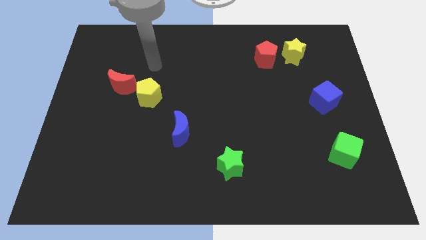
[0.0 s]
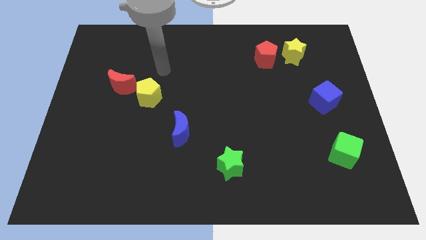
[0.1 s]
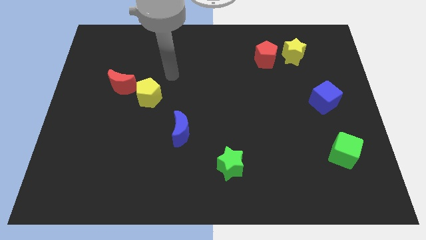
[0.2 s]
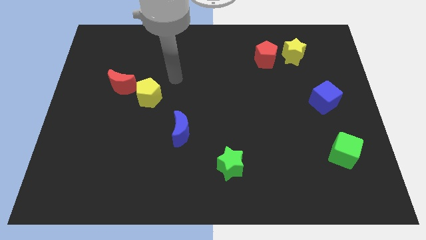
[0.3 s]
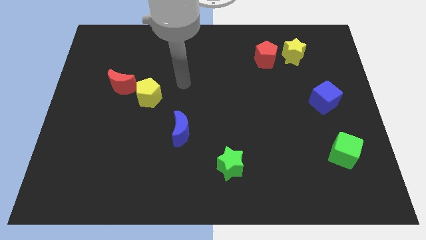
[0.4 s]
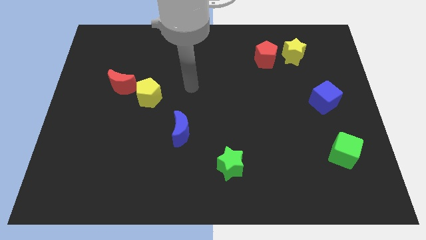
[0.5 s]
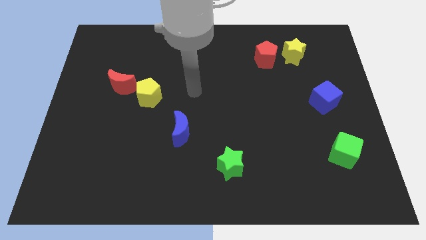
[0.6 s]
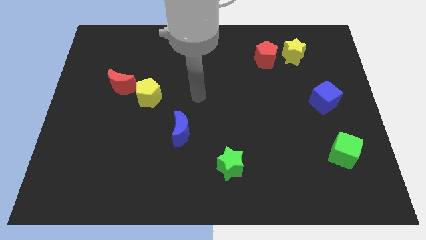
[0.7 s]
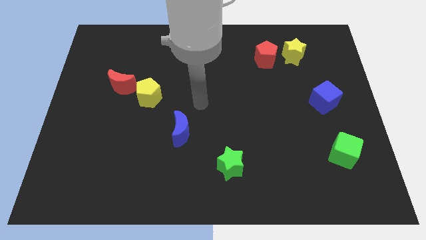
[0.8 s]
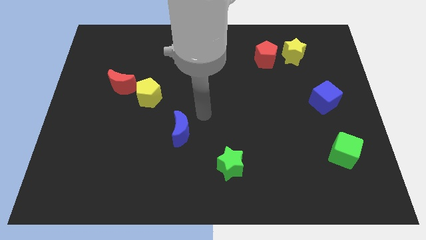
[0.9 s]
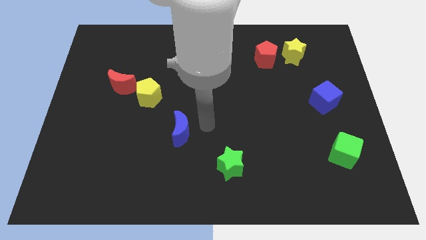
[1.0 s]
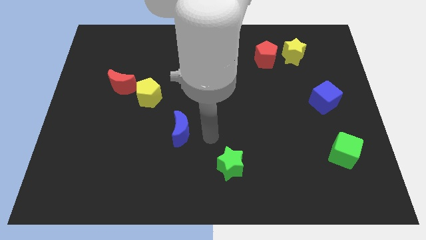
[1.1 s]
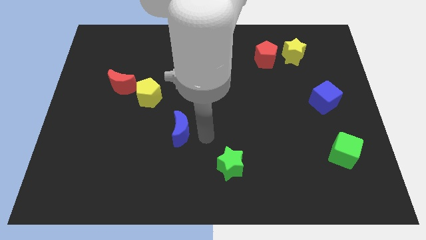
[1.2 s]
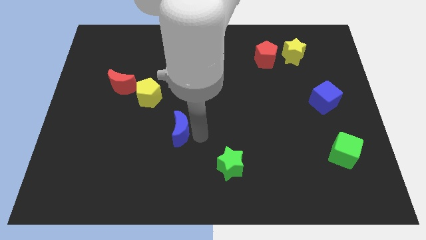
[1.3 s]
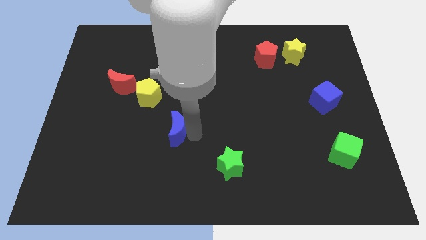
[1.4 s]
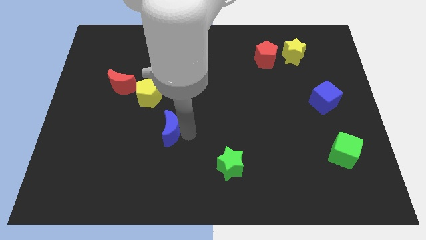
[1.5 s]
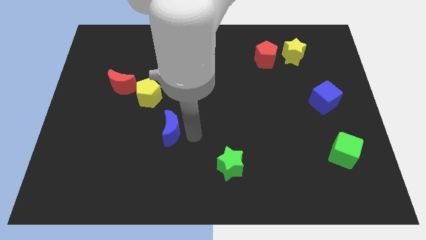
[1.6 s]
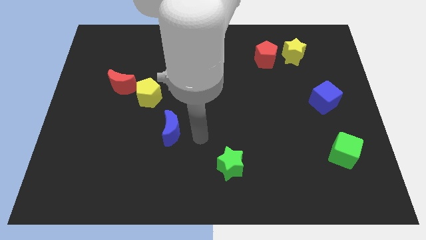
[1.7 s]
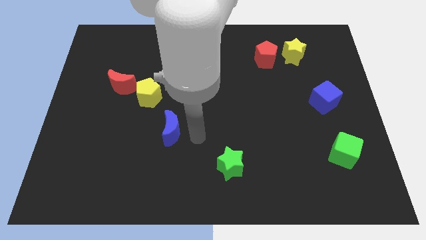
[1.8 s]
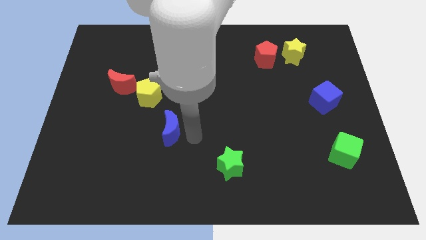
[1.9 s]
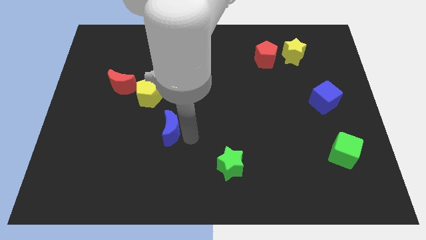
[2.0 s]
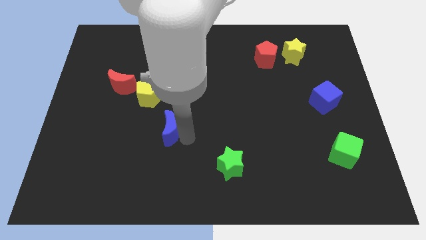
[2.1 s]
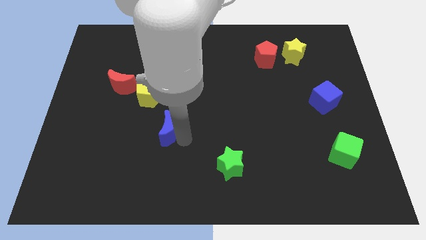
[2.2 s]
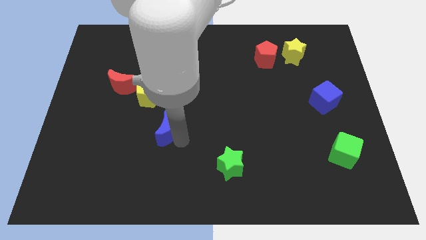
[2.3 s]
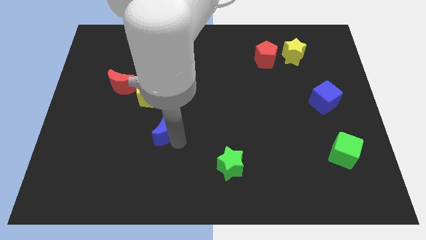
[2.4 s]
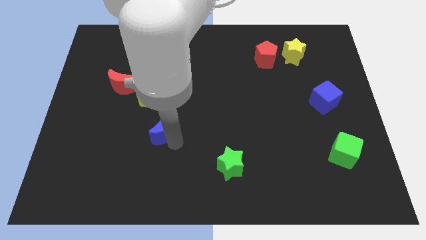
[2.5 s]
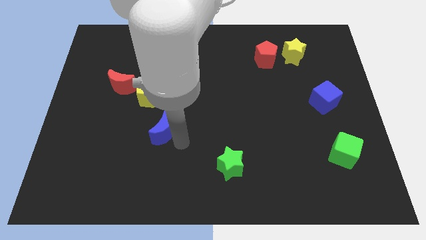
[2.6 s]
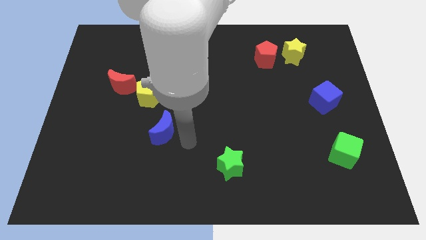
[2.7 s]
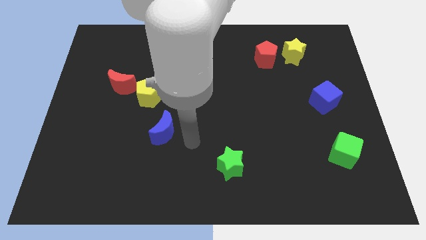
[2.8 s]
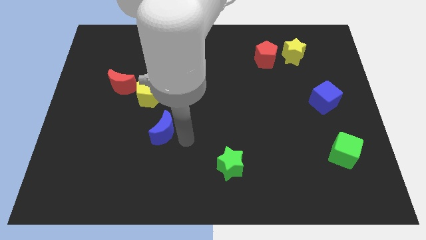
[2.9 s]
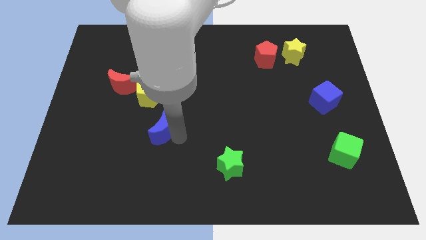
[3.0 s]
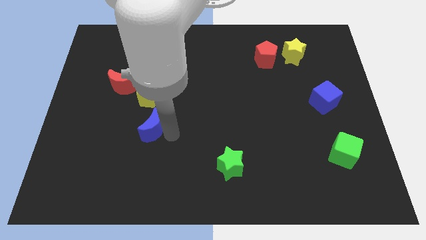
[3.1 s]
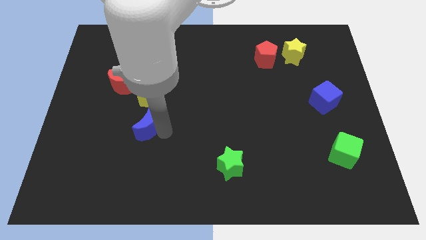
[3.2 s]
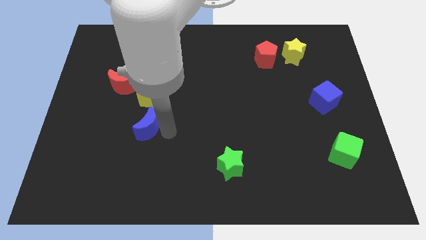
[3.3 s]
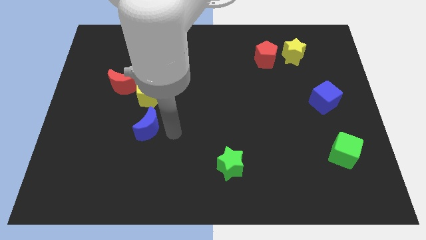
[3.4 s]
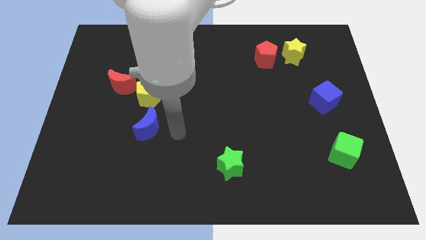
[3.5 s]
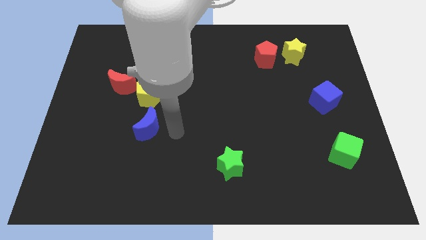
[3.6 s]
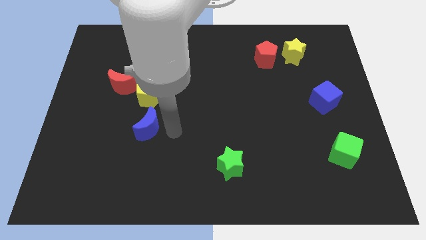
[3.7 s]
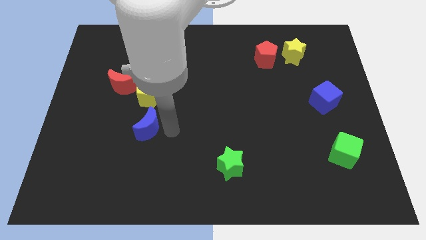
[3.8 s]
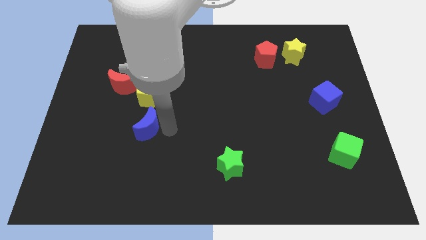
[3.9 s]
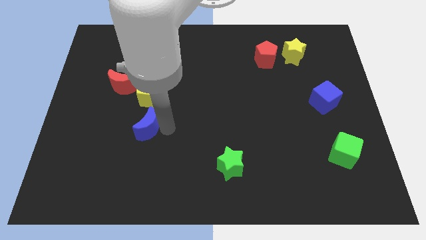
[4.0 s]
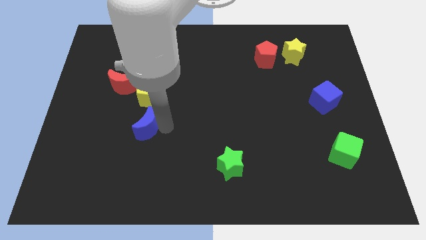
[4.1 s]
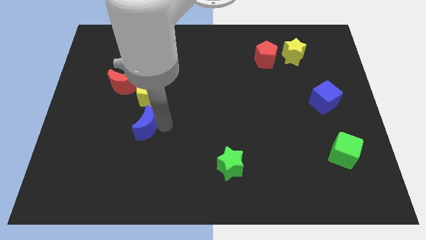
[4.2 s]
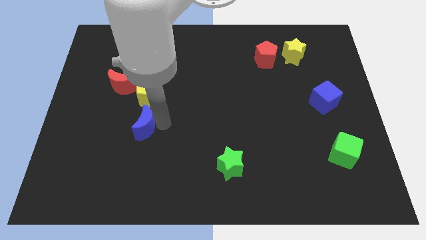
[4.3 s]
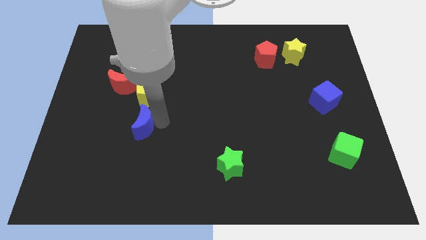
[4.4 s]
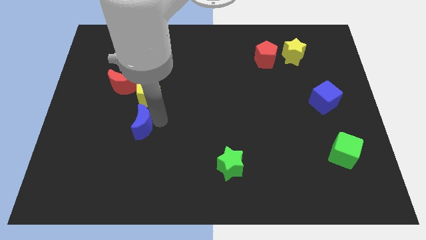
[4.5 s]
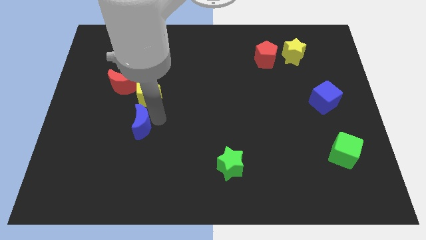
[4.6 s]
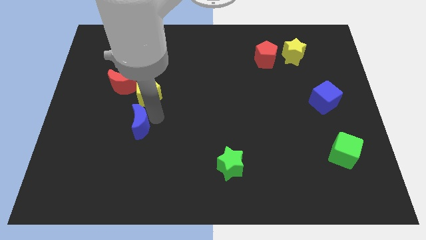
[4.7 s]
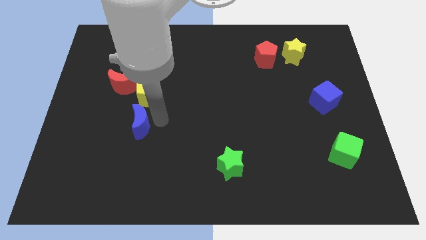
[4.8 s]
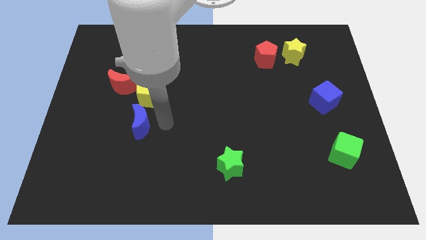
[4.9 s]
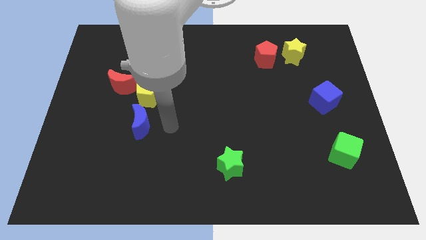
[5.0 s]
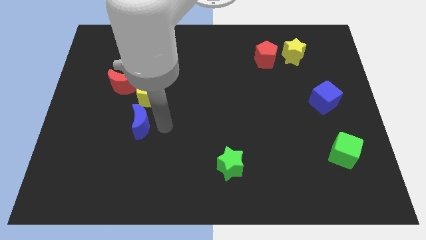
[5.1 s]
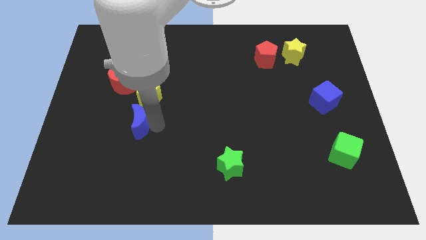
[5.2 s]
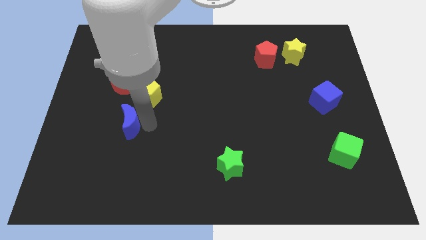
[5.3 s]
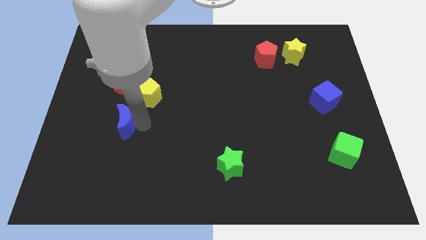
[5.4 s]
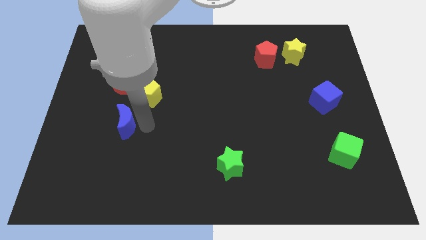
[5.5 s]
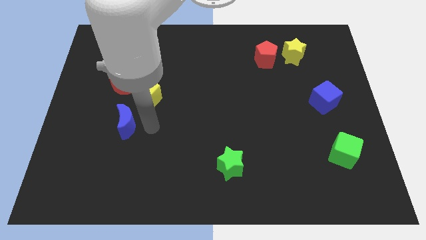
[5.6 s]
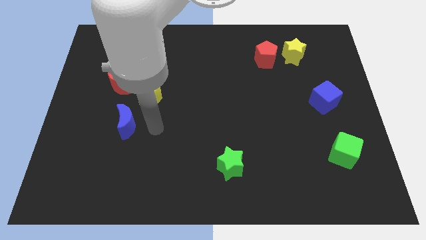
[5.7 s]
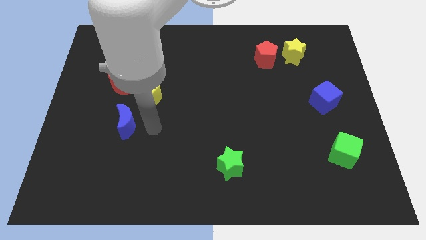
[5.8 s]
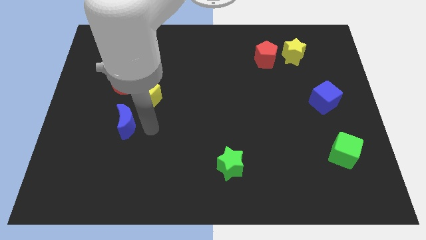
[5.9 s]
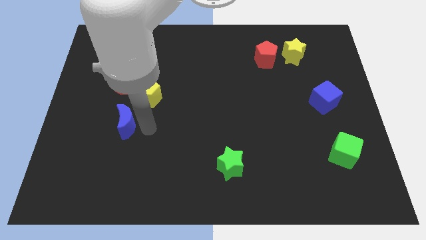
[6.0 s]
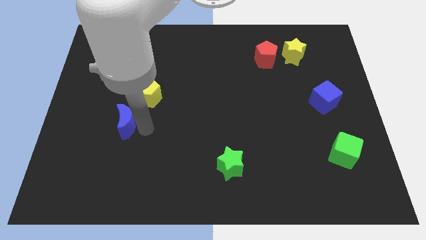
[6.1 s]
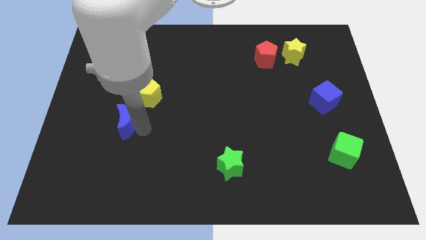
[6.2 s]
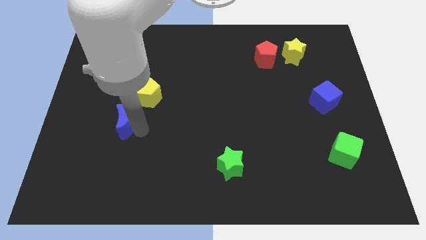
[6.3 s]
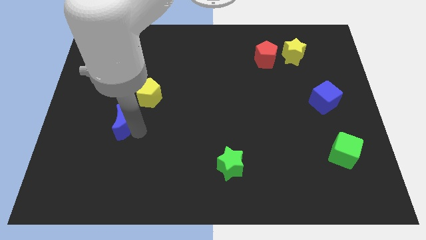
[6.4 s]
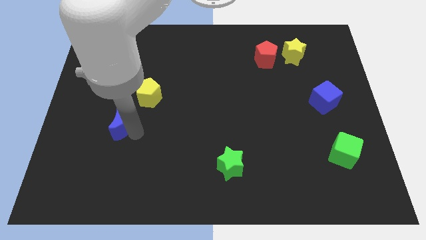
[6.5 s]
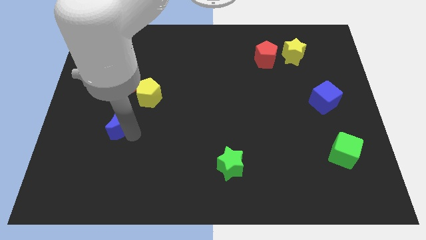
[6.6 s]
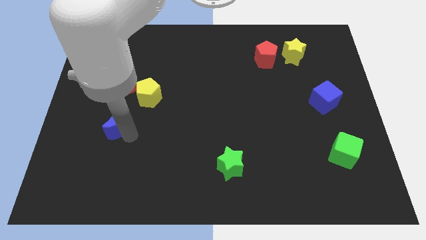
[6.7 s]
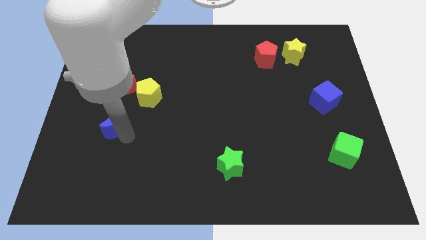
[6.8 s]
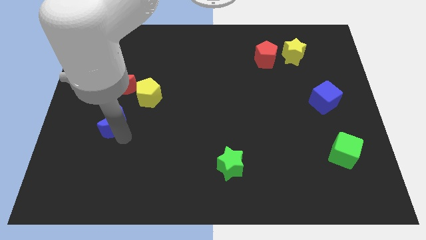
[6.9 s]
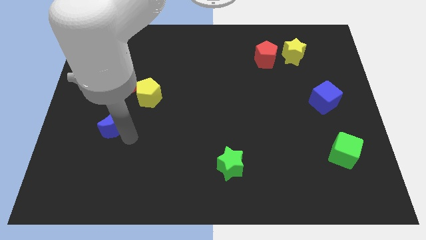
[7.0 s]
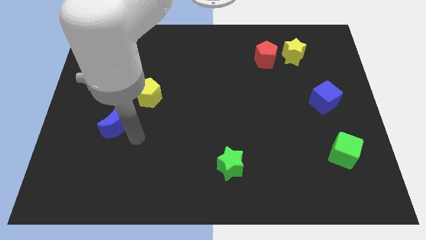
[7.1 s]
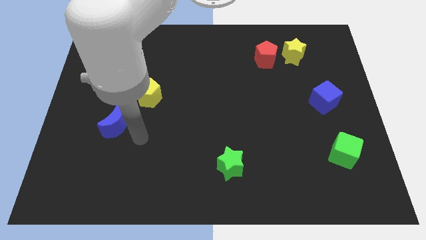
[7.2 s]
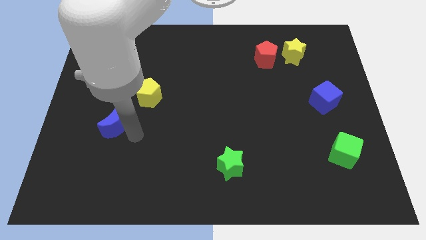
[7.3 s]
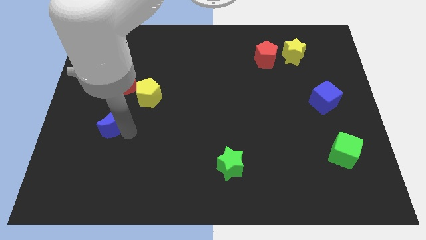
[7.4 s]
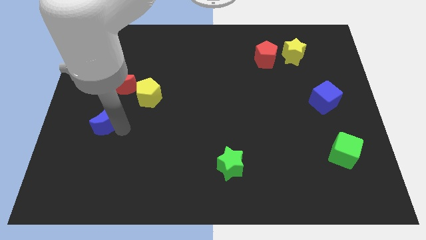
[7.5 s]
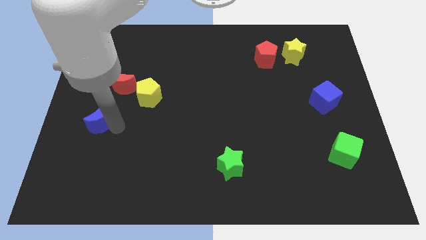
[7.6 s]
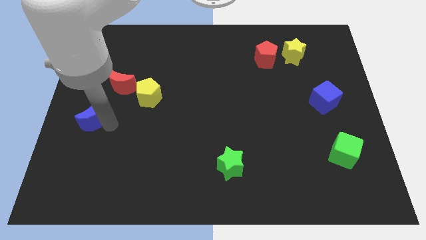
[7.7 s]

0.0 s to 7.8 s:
move the blue moon to the left side of the board
